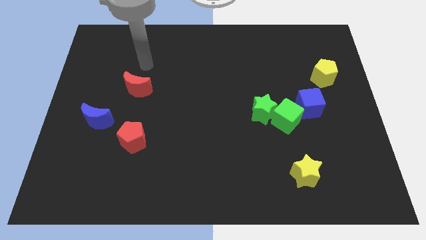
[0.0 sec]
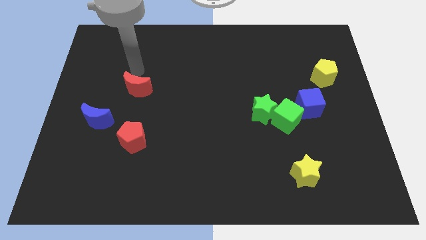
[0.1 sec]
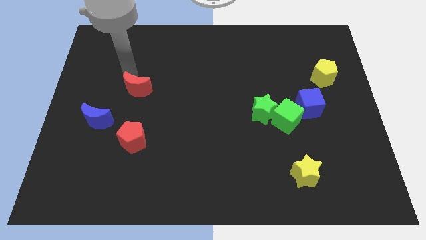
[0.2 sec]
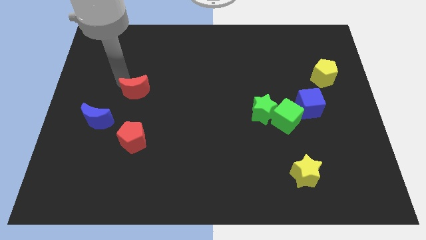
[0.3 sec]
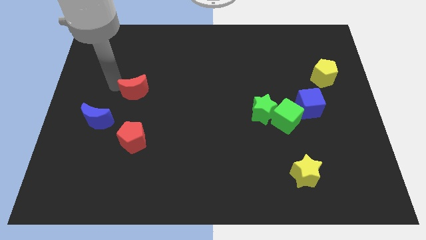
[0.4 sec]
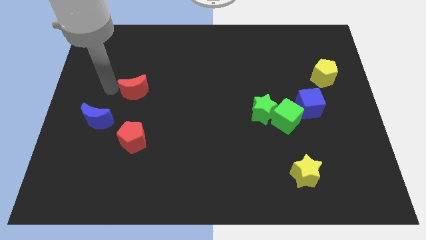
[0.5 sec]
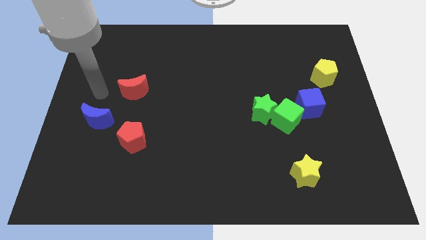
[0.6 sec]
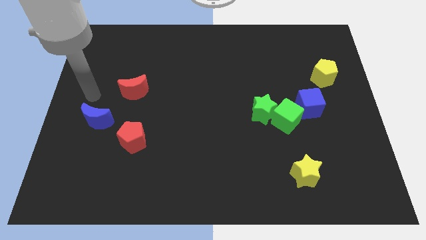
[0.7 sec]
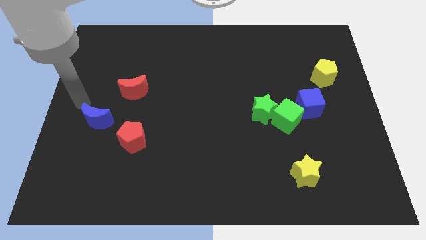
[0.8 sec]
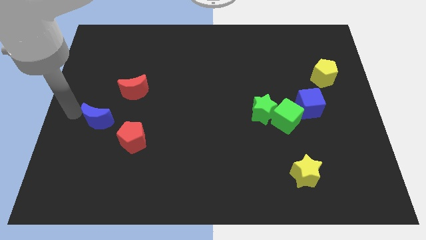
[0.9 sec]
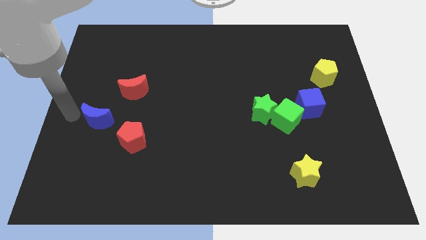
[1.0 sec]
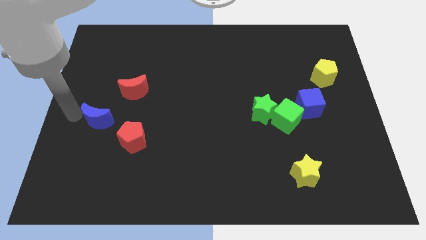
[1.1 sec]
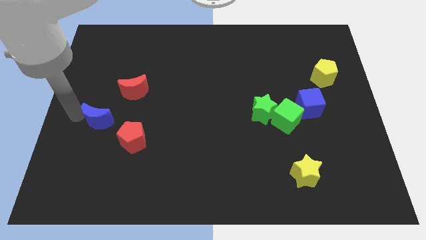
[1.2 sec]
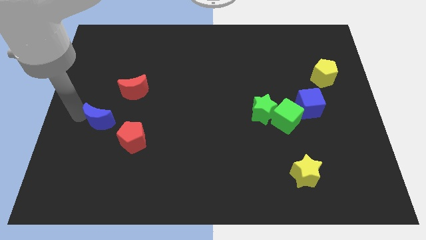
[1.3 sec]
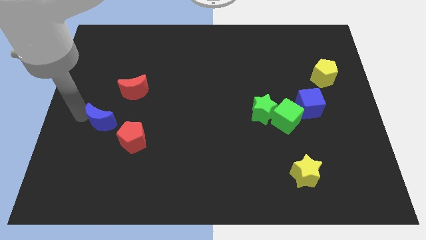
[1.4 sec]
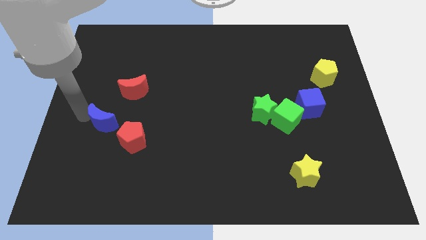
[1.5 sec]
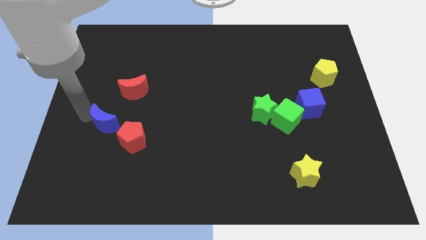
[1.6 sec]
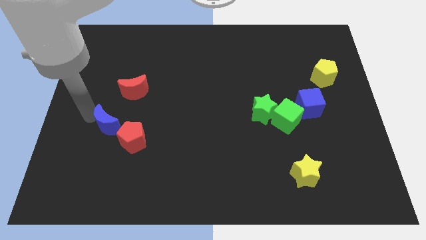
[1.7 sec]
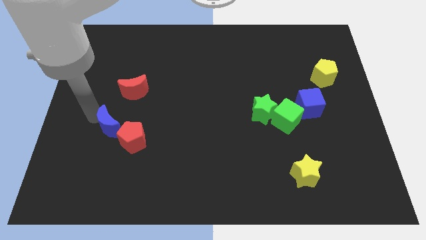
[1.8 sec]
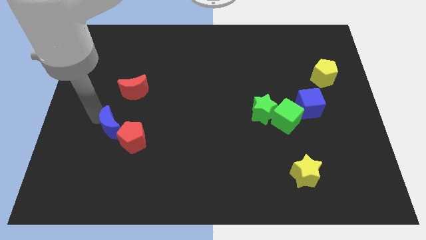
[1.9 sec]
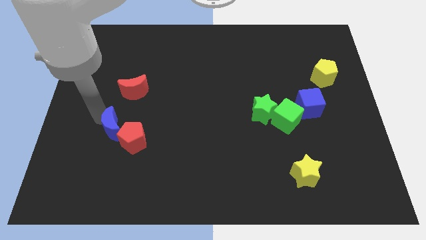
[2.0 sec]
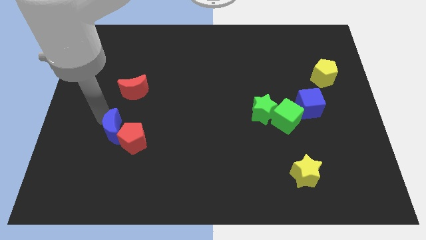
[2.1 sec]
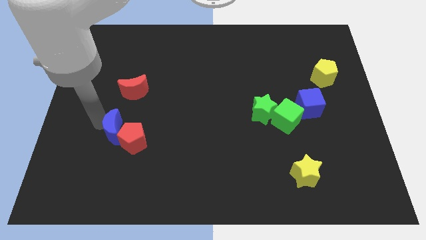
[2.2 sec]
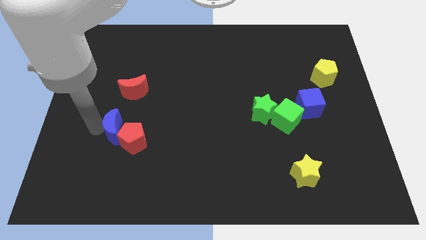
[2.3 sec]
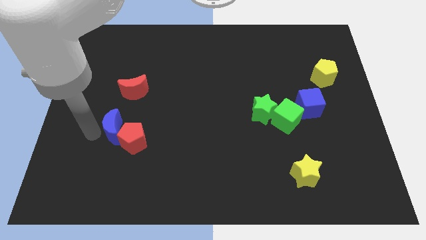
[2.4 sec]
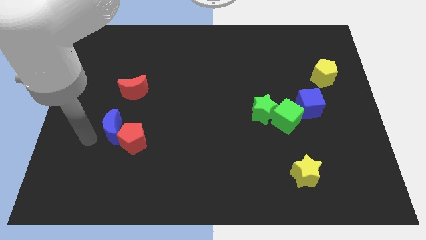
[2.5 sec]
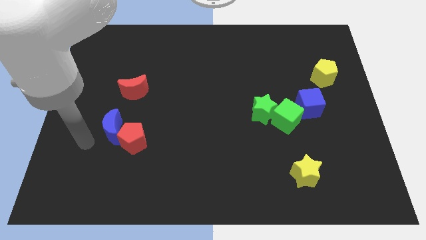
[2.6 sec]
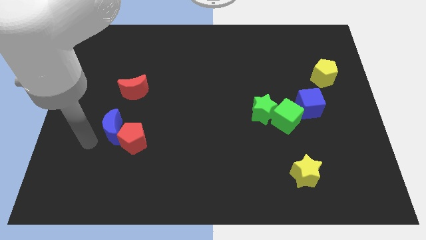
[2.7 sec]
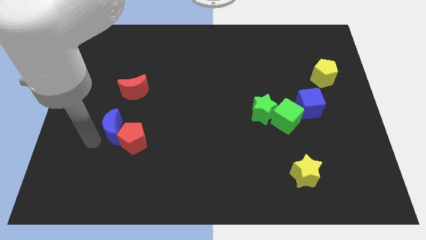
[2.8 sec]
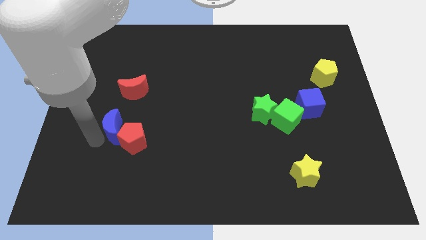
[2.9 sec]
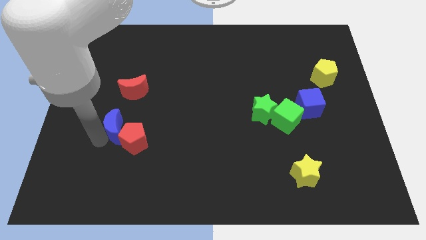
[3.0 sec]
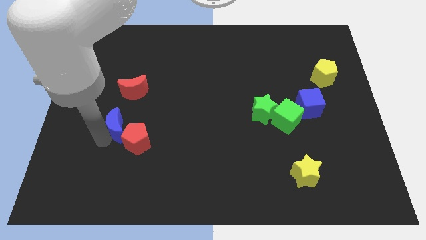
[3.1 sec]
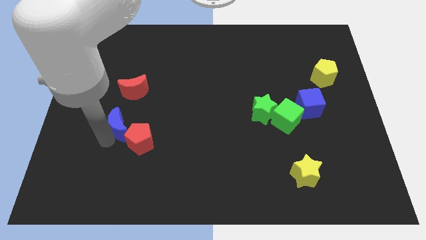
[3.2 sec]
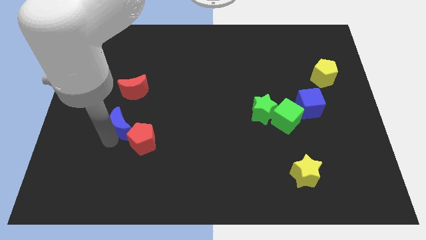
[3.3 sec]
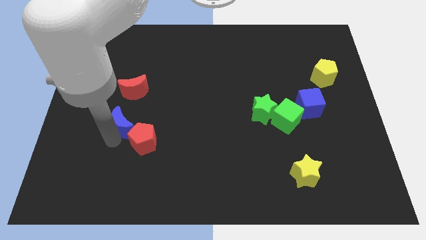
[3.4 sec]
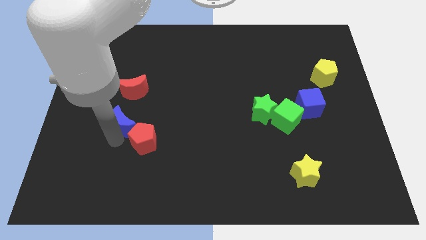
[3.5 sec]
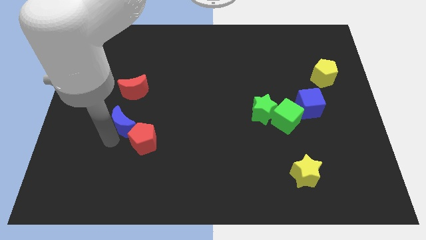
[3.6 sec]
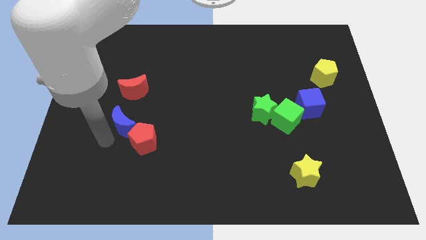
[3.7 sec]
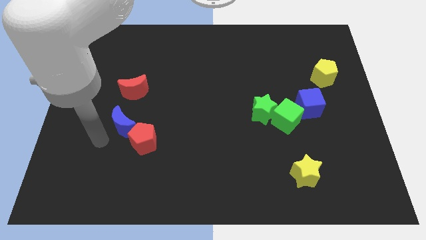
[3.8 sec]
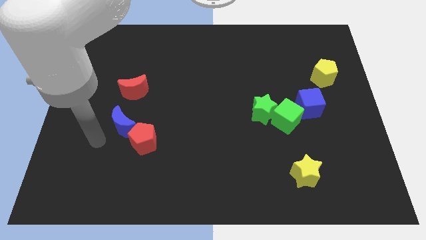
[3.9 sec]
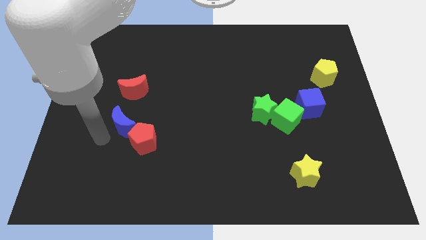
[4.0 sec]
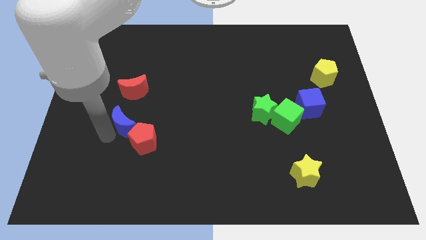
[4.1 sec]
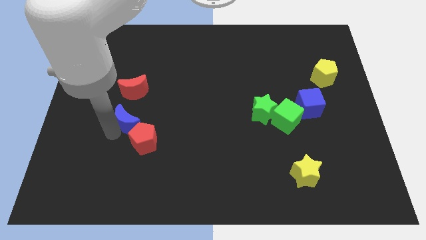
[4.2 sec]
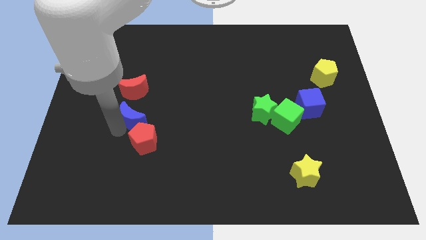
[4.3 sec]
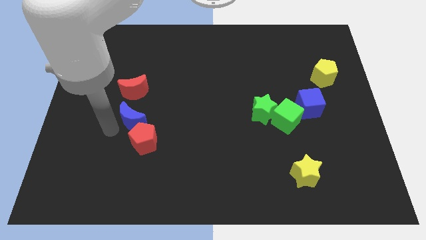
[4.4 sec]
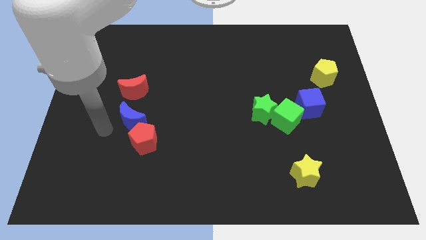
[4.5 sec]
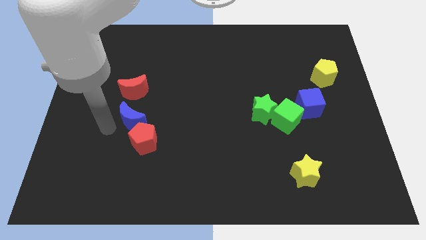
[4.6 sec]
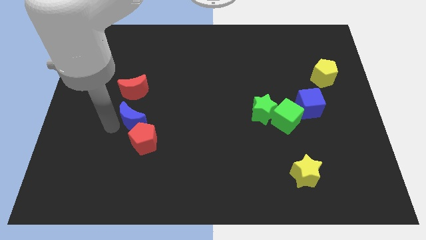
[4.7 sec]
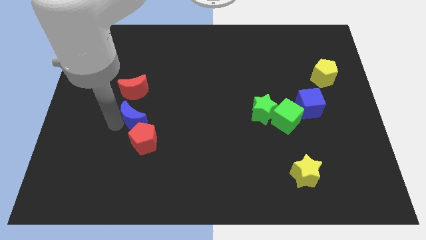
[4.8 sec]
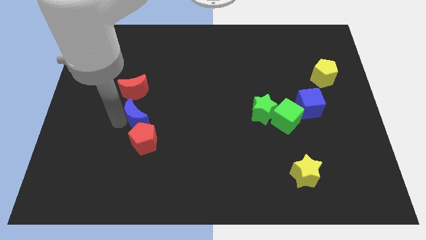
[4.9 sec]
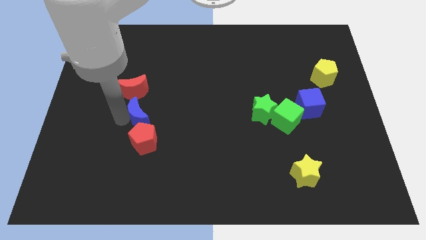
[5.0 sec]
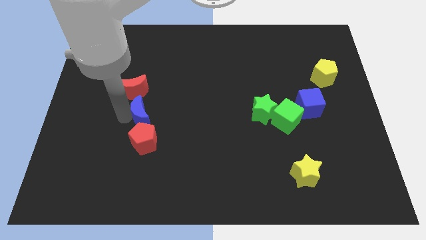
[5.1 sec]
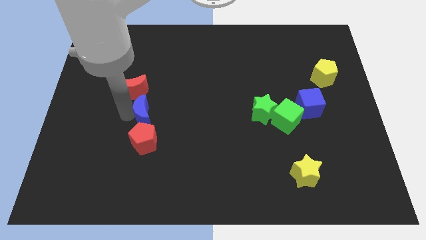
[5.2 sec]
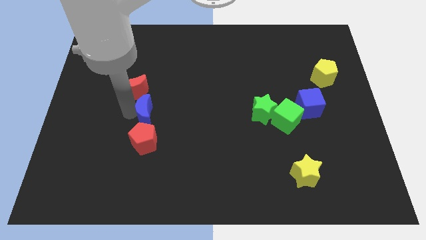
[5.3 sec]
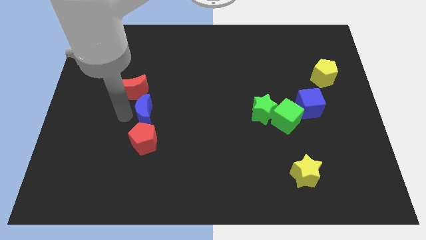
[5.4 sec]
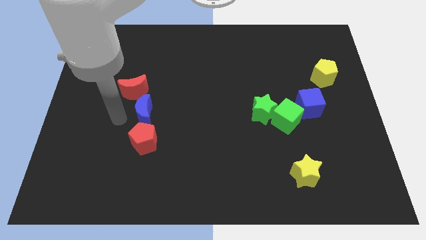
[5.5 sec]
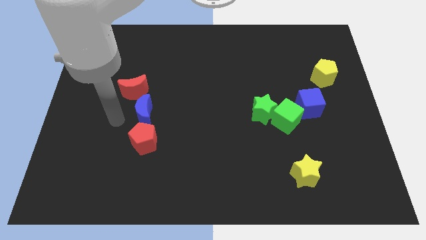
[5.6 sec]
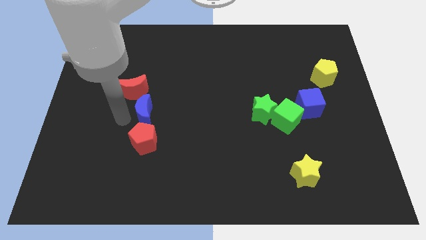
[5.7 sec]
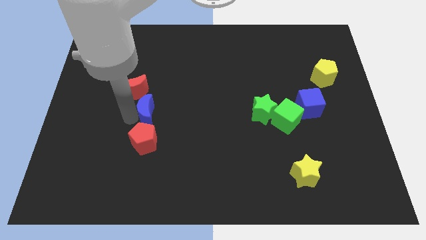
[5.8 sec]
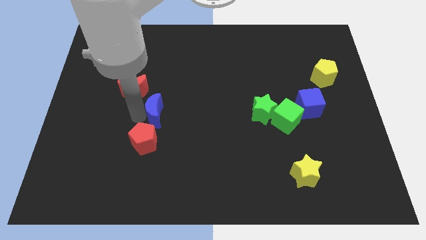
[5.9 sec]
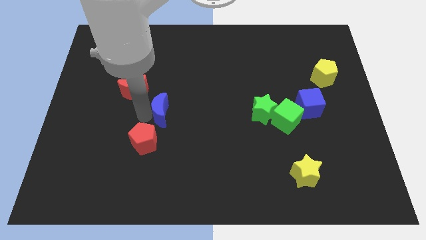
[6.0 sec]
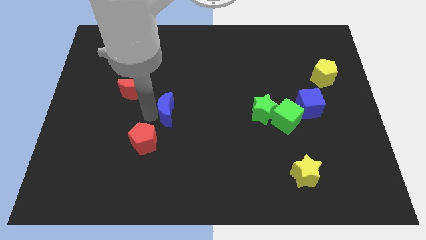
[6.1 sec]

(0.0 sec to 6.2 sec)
put the blue moon to the center of the board

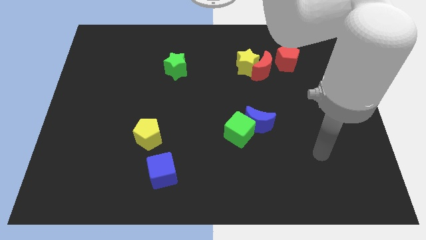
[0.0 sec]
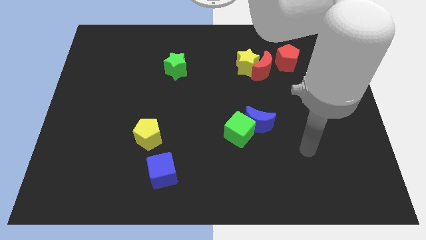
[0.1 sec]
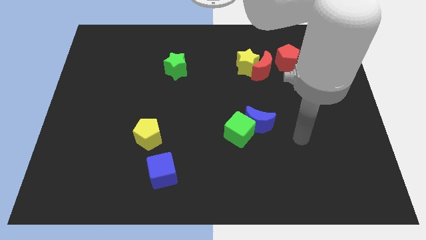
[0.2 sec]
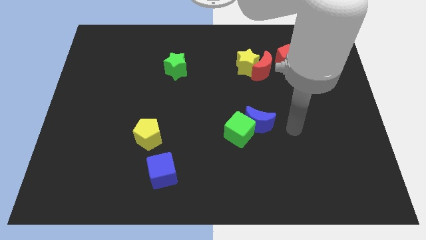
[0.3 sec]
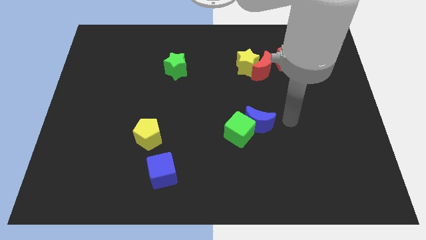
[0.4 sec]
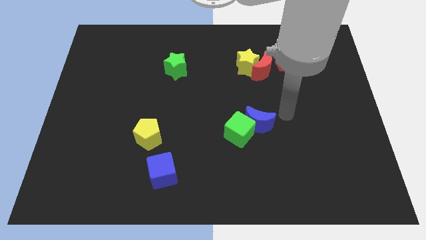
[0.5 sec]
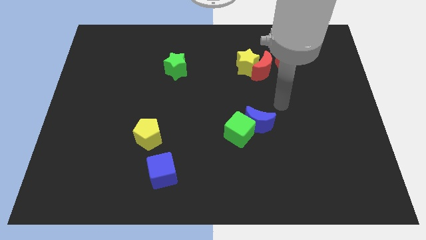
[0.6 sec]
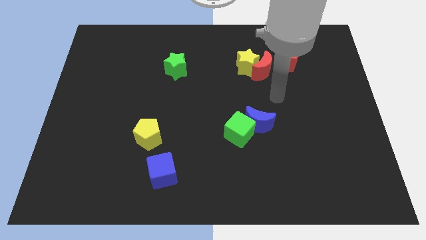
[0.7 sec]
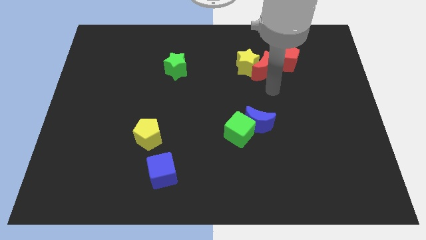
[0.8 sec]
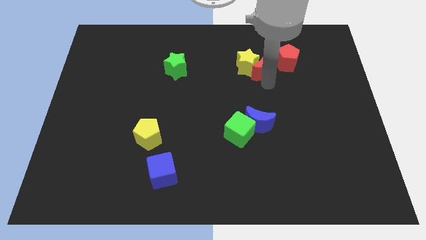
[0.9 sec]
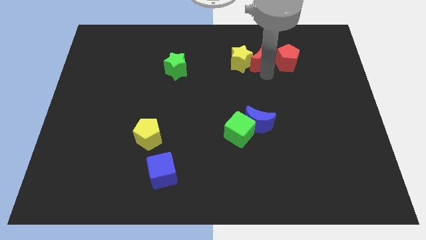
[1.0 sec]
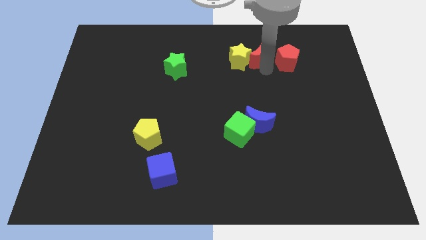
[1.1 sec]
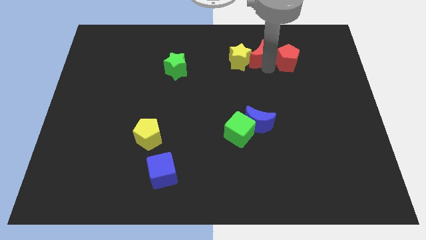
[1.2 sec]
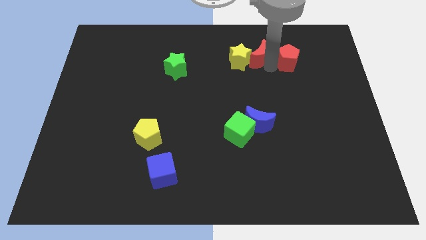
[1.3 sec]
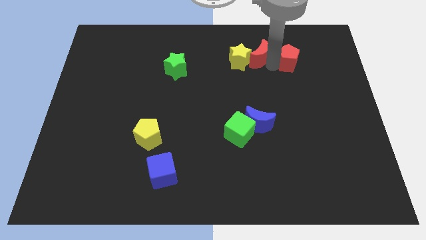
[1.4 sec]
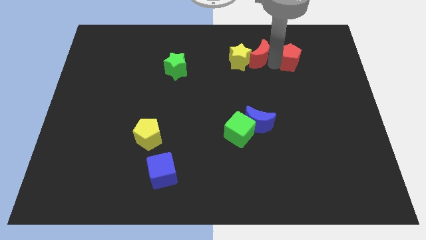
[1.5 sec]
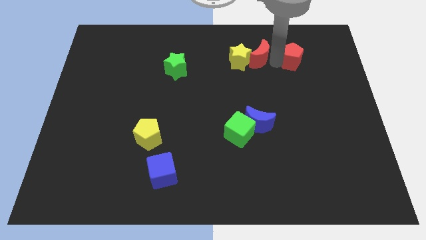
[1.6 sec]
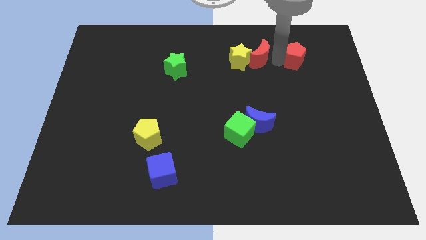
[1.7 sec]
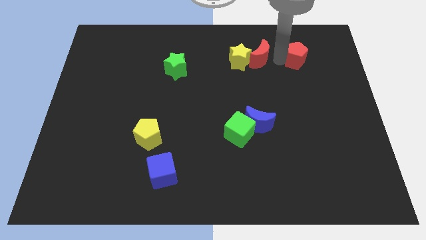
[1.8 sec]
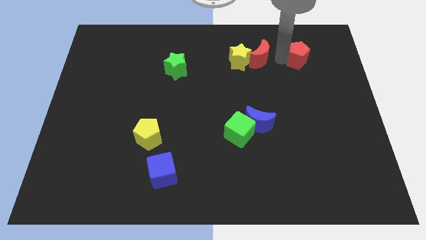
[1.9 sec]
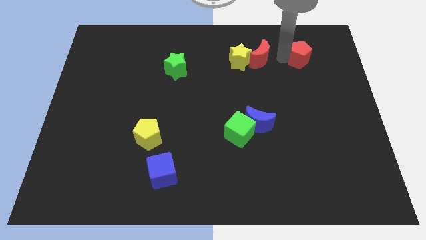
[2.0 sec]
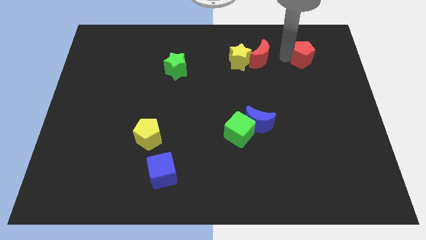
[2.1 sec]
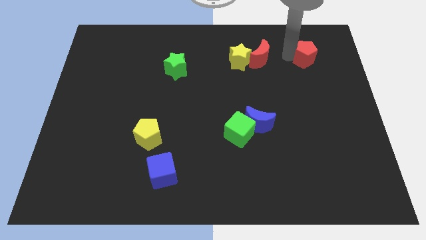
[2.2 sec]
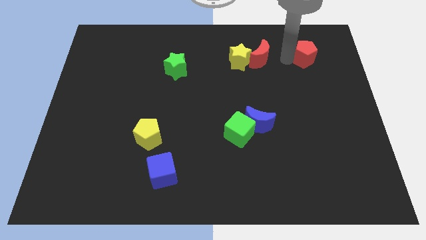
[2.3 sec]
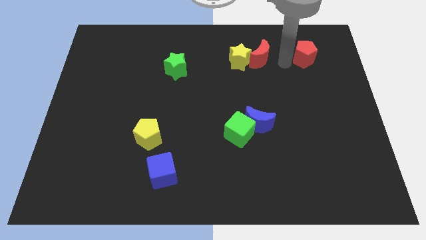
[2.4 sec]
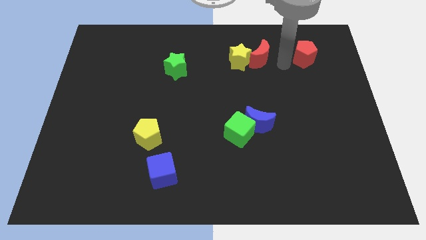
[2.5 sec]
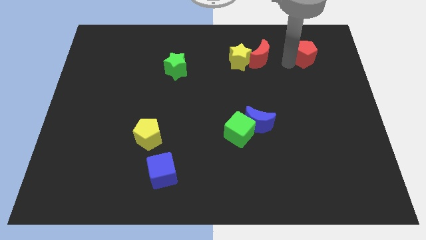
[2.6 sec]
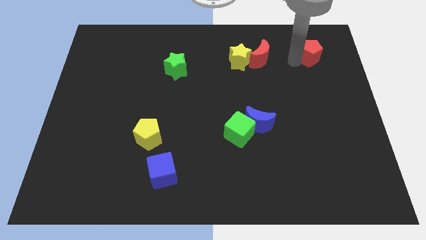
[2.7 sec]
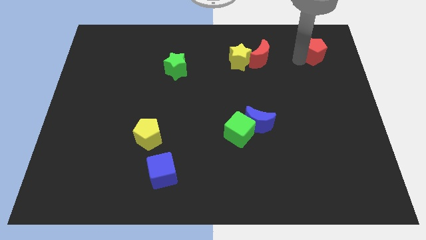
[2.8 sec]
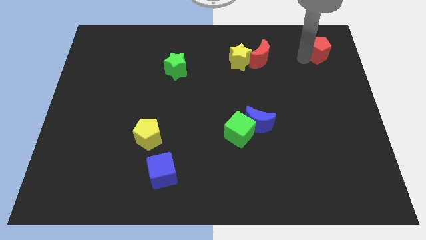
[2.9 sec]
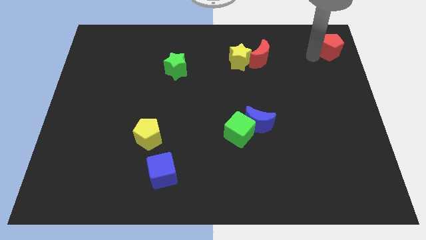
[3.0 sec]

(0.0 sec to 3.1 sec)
move the red pentagon to the top right
